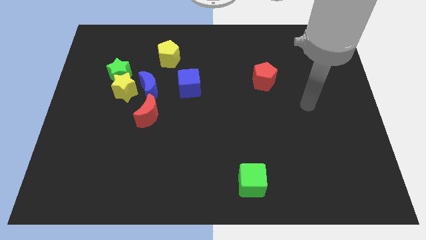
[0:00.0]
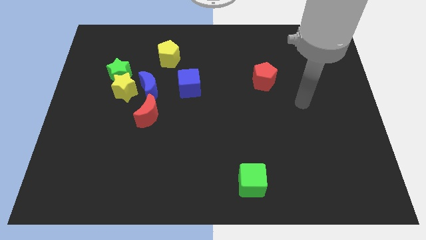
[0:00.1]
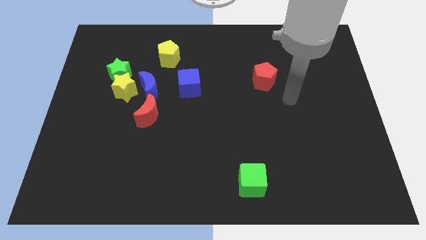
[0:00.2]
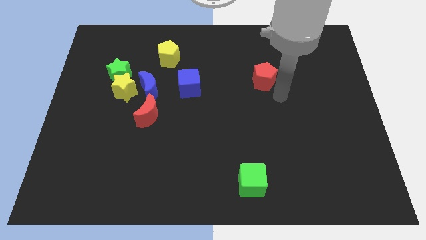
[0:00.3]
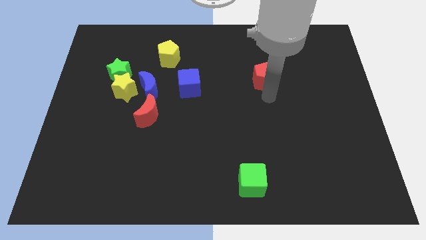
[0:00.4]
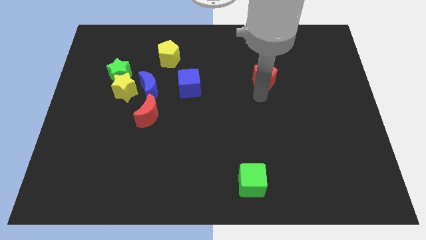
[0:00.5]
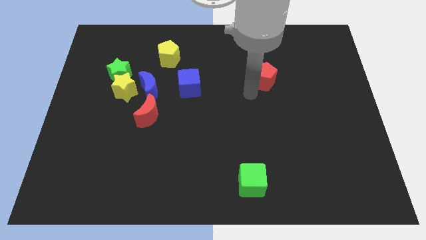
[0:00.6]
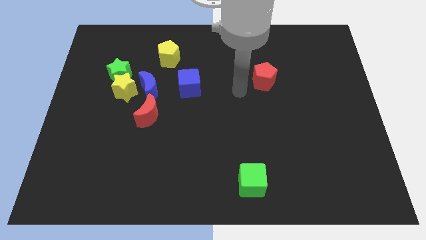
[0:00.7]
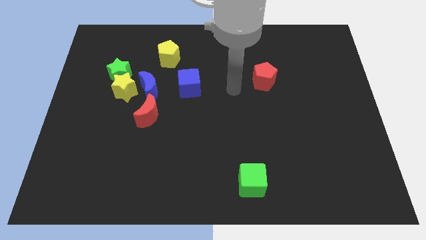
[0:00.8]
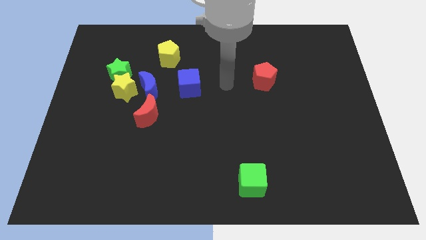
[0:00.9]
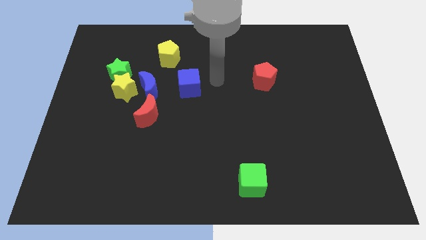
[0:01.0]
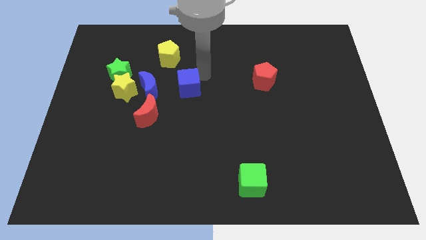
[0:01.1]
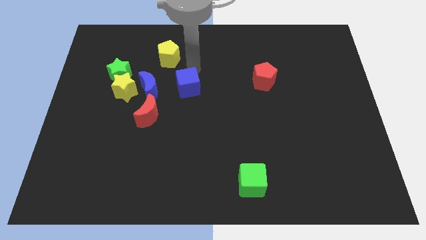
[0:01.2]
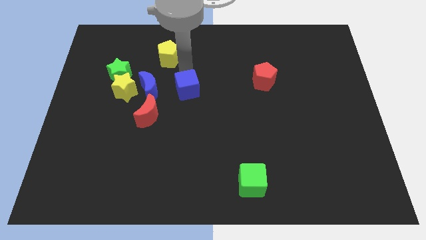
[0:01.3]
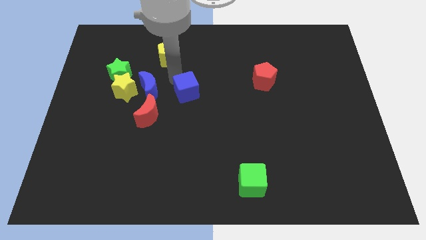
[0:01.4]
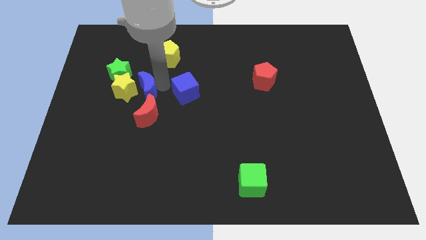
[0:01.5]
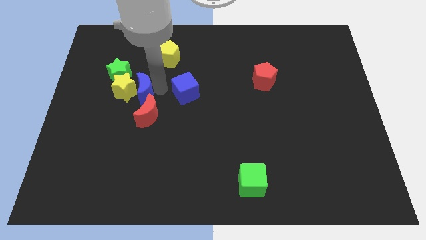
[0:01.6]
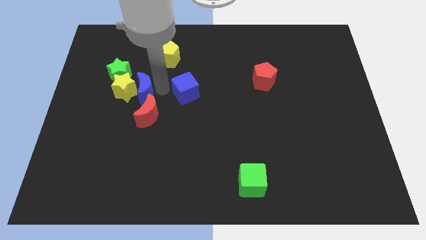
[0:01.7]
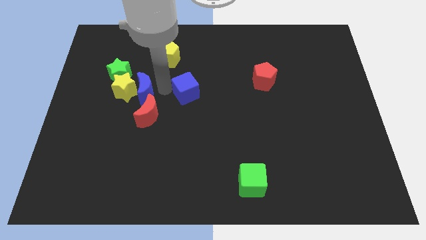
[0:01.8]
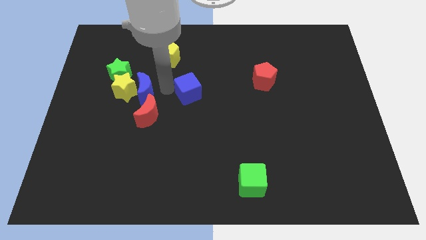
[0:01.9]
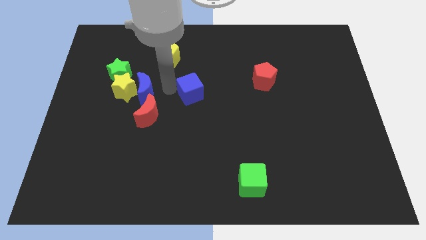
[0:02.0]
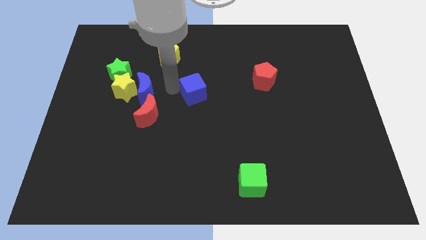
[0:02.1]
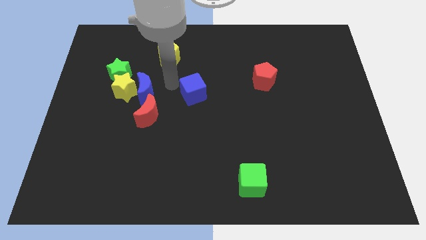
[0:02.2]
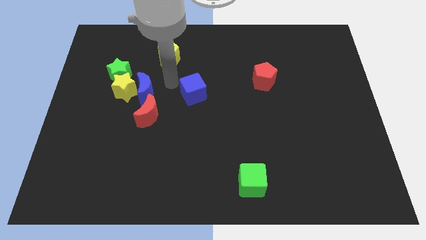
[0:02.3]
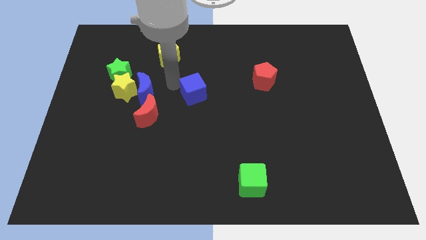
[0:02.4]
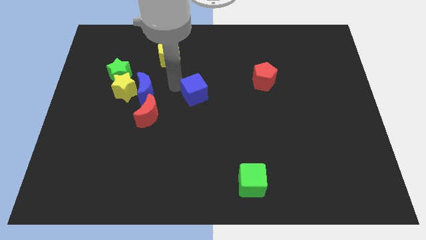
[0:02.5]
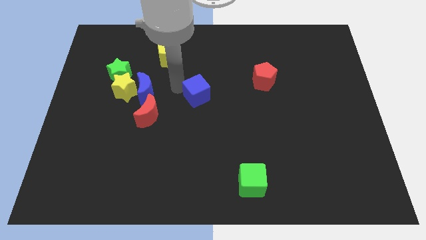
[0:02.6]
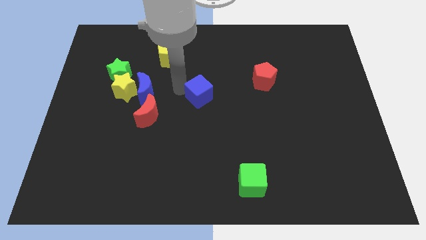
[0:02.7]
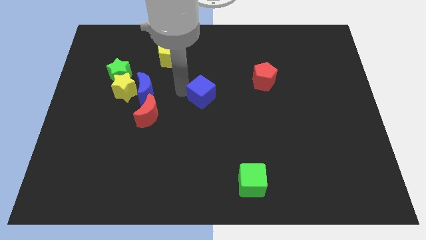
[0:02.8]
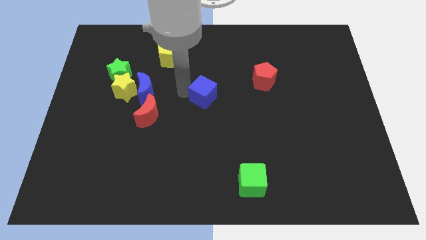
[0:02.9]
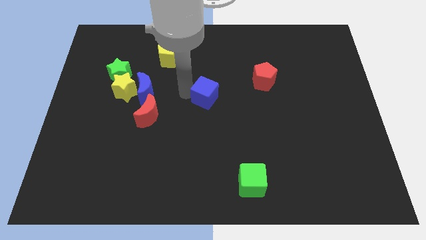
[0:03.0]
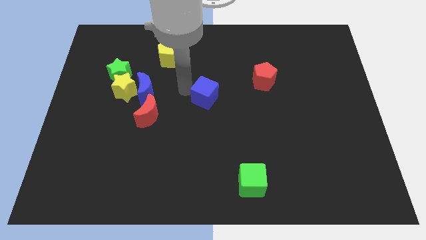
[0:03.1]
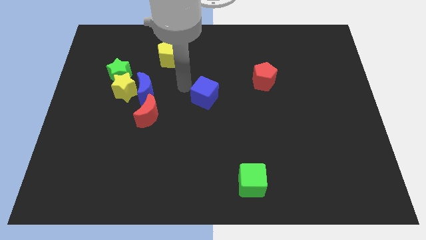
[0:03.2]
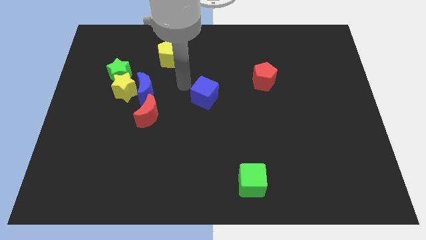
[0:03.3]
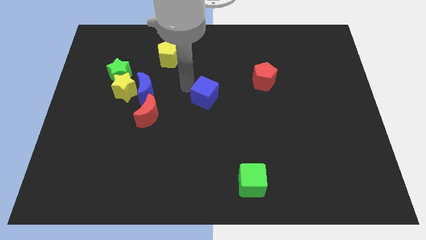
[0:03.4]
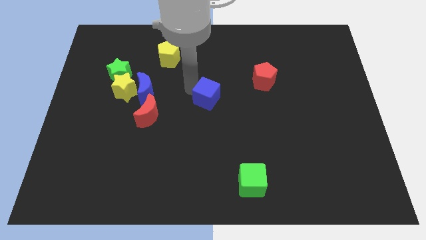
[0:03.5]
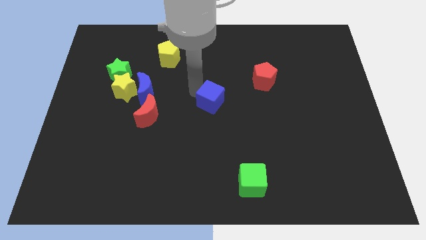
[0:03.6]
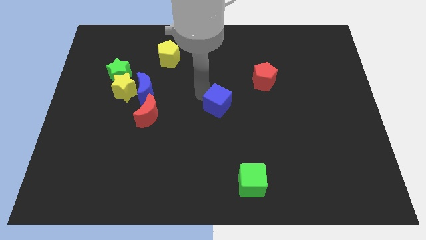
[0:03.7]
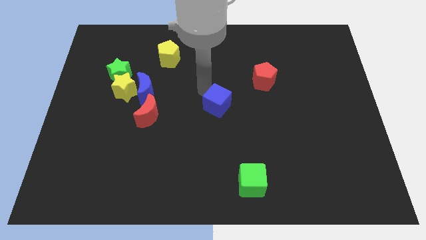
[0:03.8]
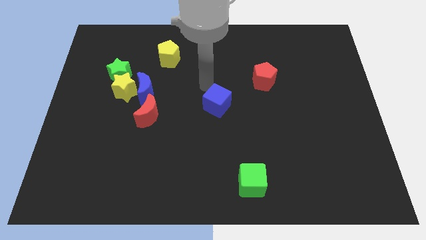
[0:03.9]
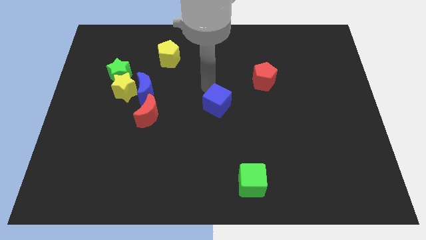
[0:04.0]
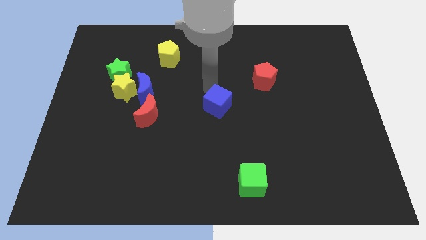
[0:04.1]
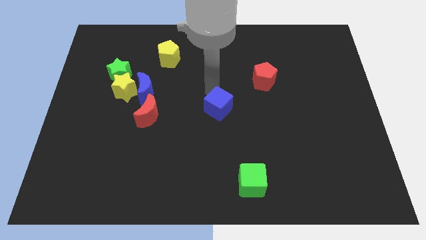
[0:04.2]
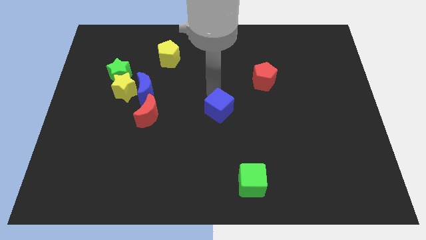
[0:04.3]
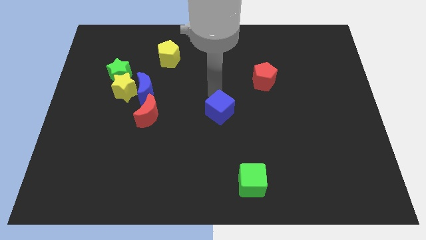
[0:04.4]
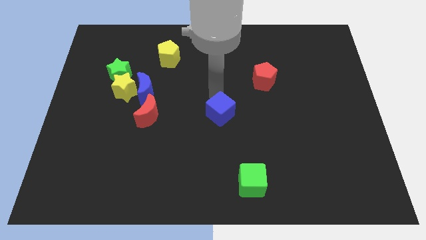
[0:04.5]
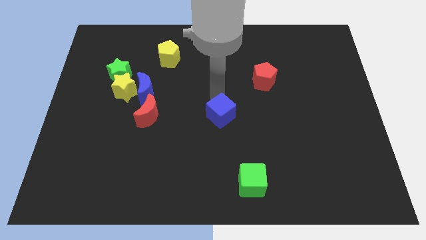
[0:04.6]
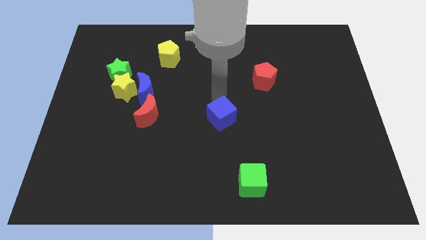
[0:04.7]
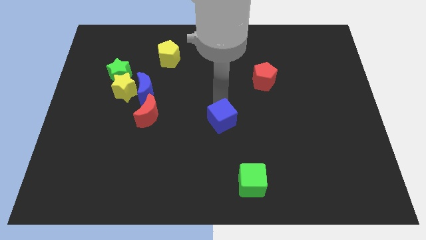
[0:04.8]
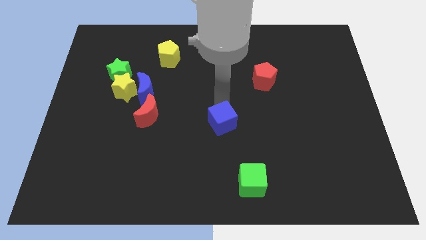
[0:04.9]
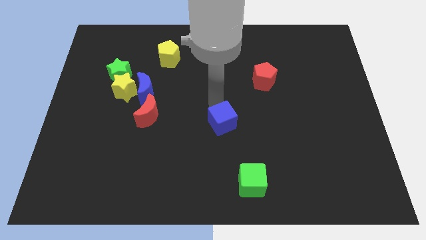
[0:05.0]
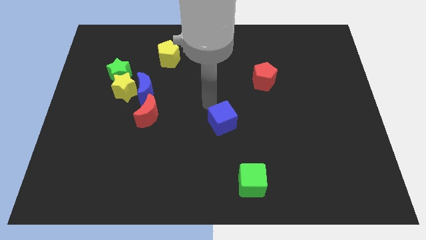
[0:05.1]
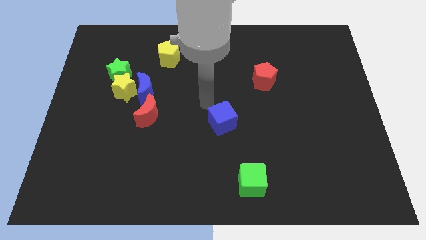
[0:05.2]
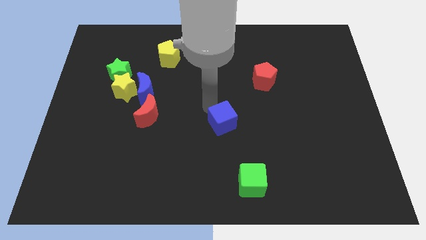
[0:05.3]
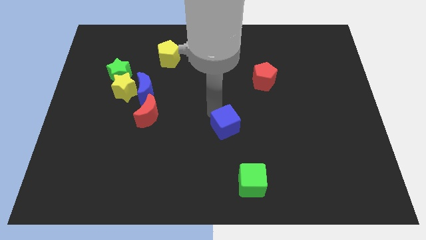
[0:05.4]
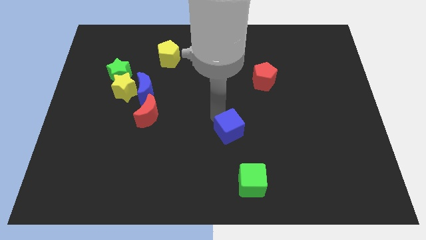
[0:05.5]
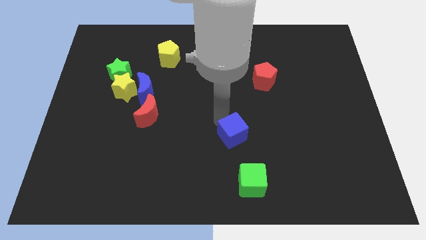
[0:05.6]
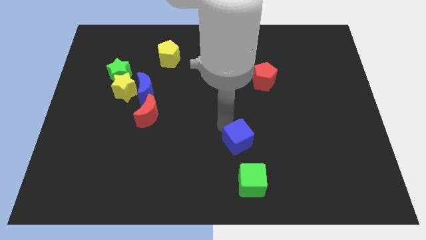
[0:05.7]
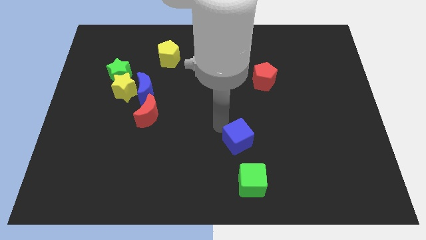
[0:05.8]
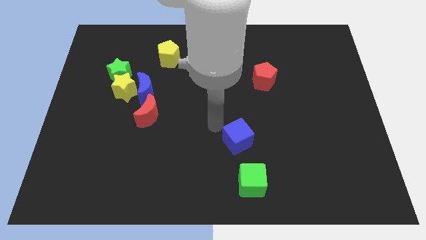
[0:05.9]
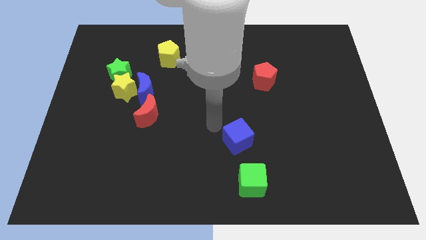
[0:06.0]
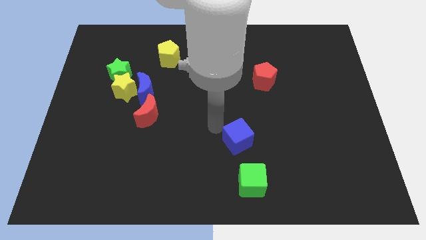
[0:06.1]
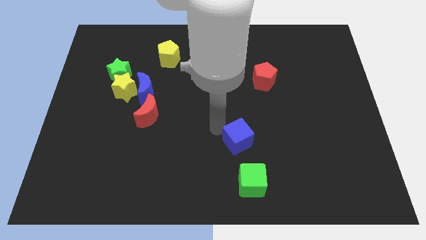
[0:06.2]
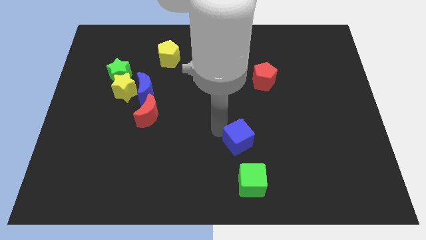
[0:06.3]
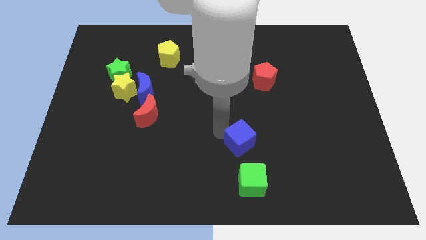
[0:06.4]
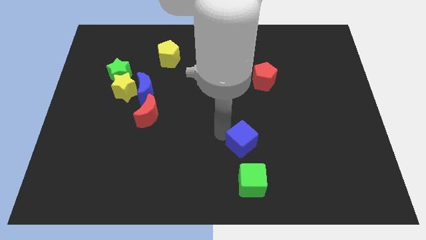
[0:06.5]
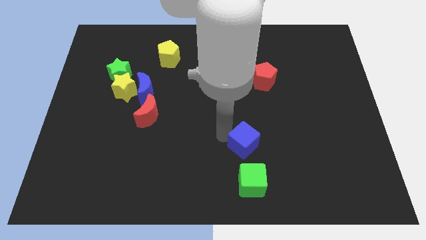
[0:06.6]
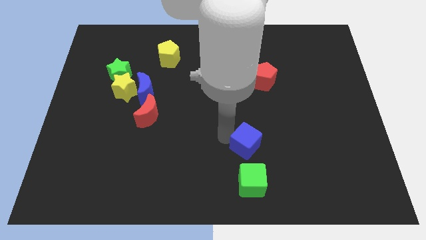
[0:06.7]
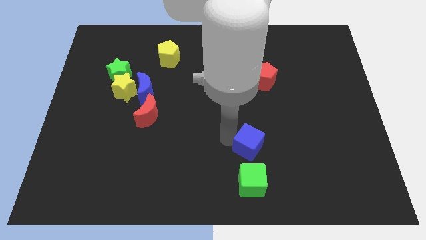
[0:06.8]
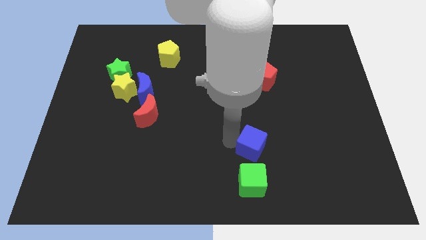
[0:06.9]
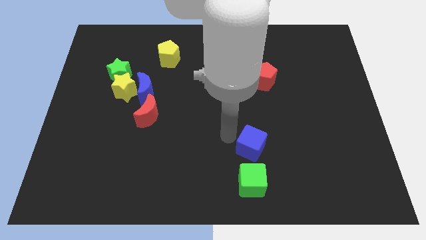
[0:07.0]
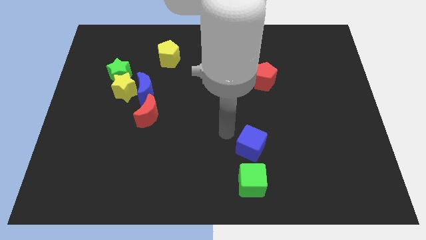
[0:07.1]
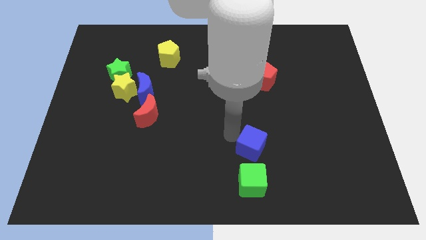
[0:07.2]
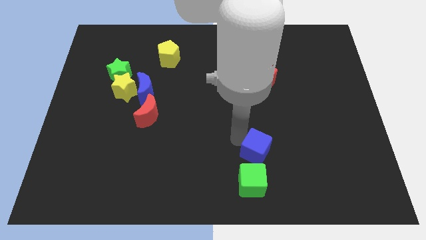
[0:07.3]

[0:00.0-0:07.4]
slide the blue cube diagonally up and to the right of the green cube
